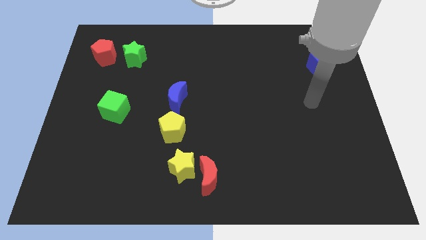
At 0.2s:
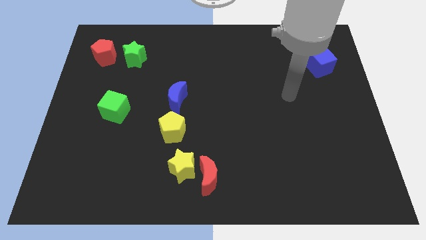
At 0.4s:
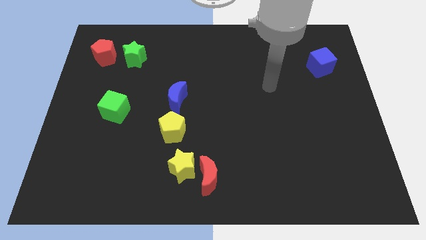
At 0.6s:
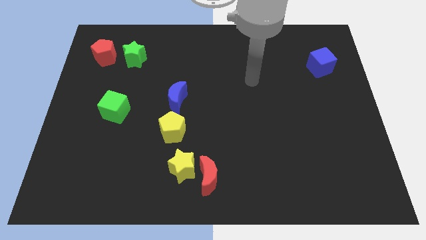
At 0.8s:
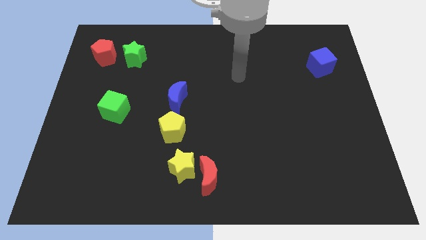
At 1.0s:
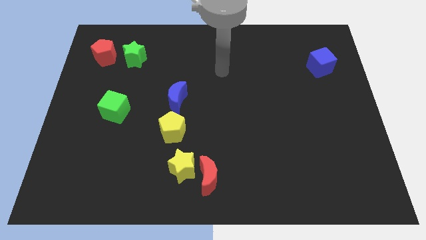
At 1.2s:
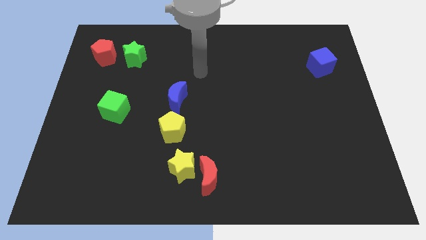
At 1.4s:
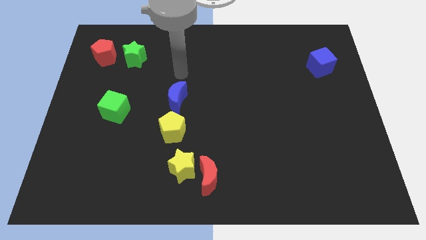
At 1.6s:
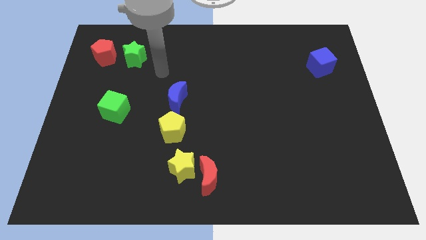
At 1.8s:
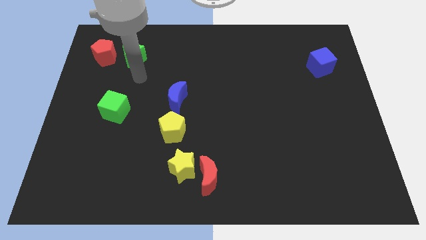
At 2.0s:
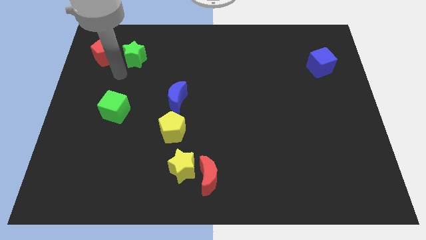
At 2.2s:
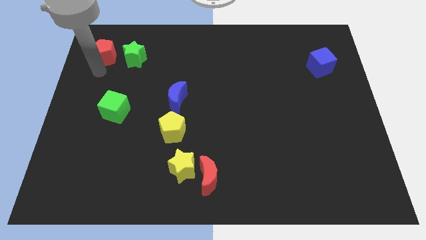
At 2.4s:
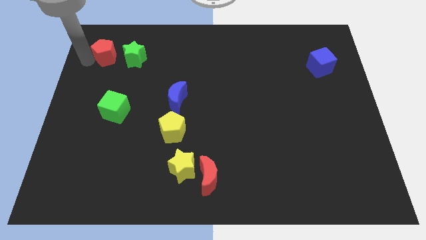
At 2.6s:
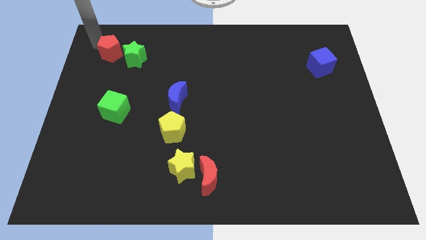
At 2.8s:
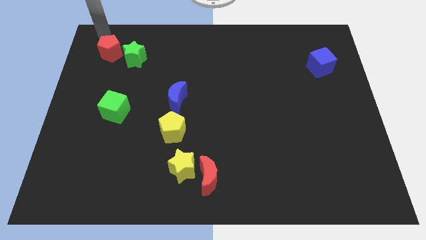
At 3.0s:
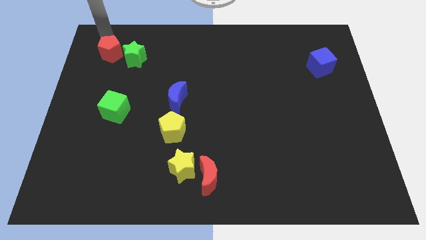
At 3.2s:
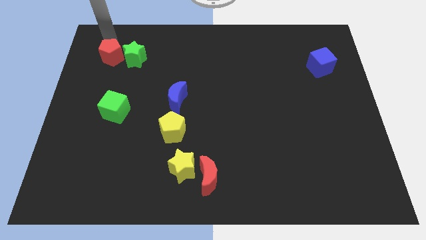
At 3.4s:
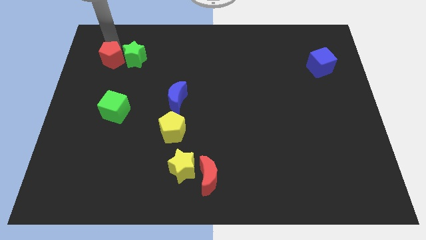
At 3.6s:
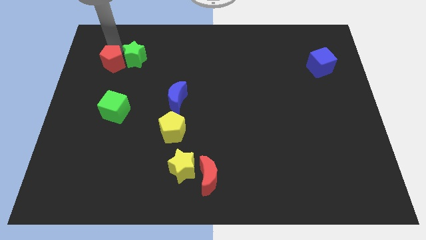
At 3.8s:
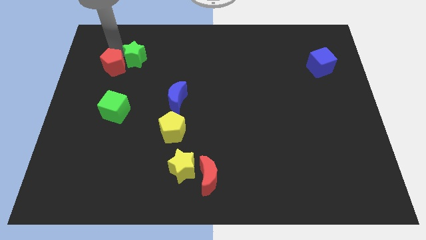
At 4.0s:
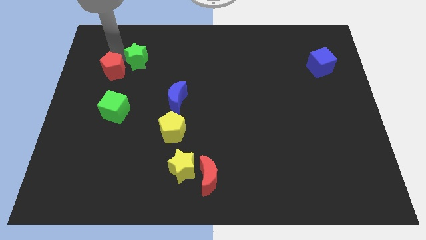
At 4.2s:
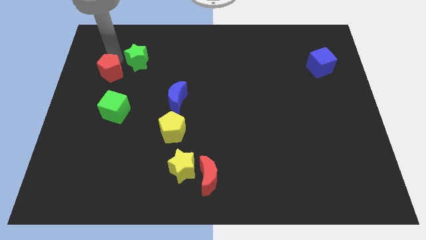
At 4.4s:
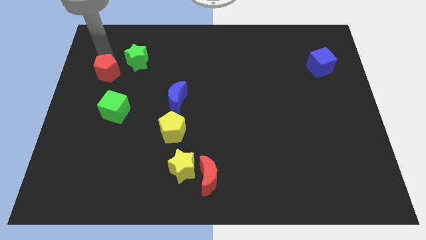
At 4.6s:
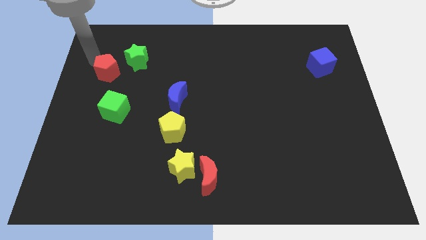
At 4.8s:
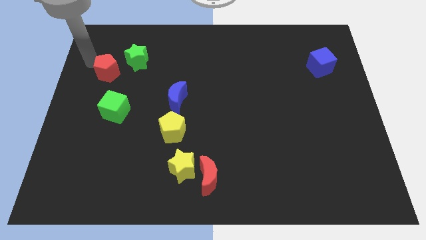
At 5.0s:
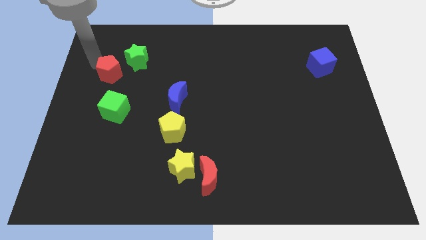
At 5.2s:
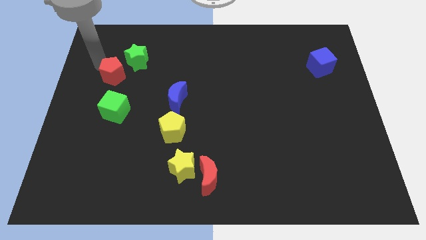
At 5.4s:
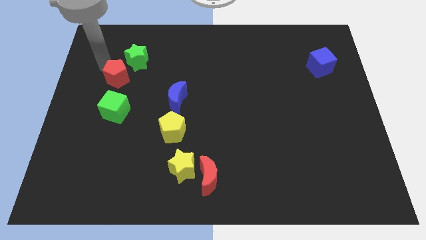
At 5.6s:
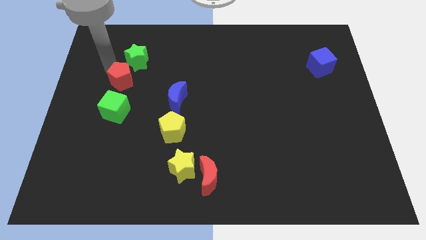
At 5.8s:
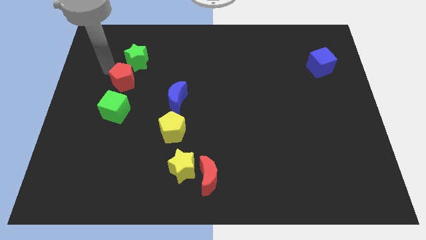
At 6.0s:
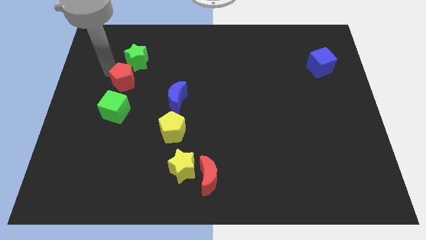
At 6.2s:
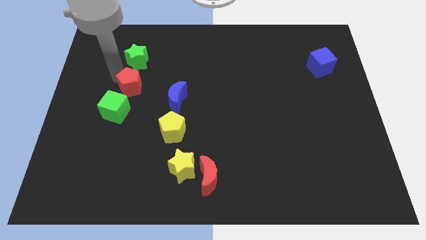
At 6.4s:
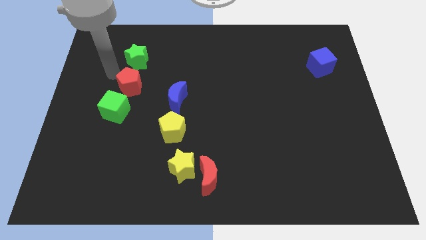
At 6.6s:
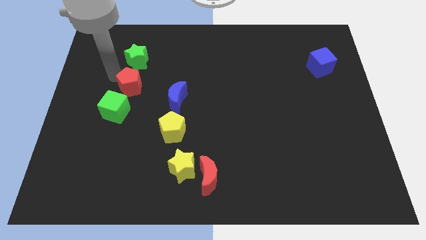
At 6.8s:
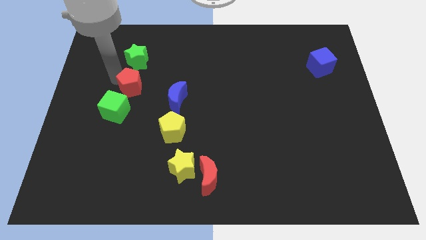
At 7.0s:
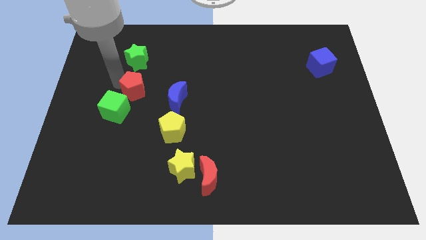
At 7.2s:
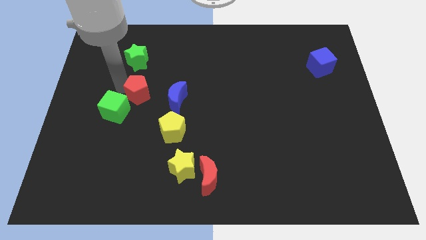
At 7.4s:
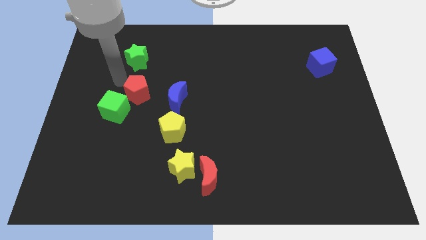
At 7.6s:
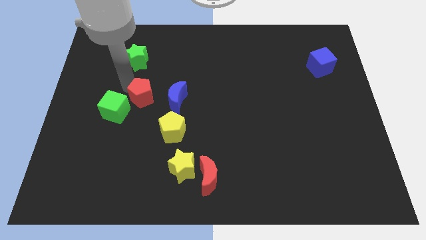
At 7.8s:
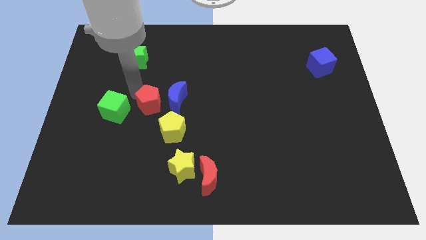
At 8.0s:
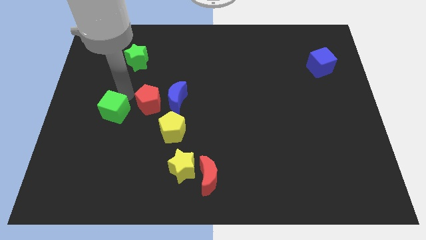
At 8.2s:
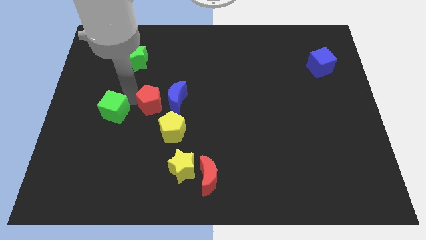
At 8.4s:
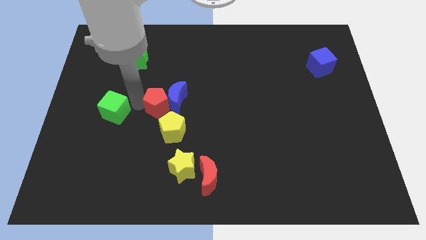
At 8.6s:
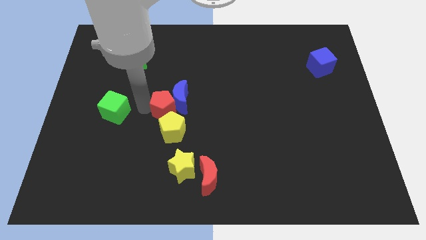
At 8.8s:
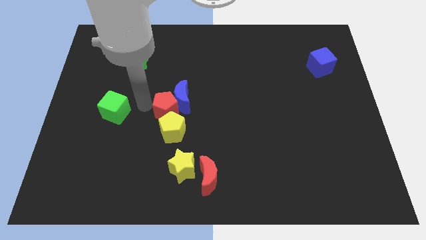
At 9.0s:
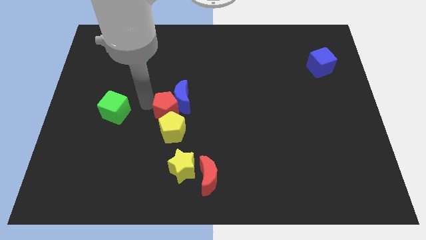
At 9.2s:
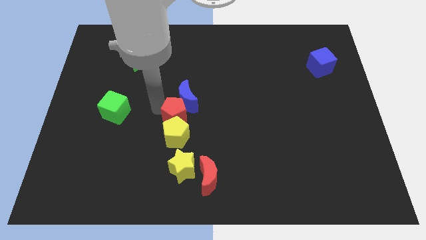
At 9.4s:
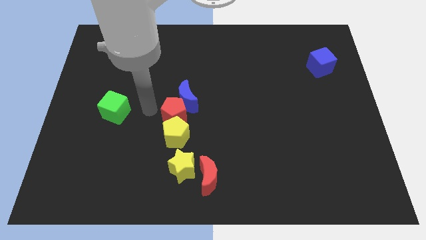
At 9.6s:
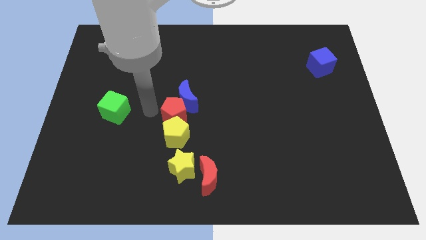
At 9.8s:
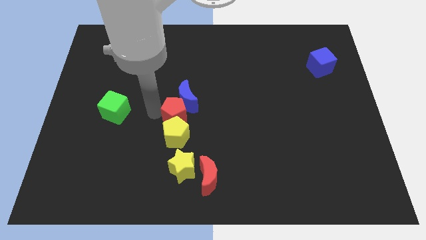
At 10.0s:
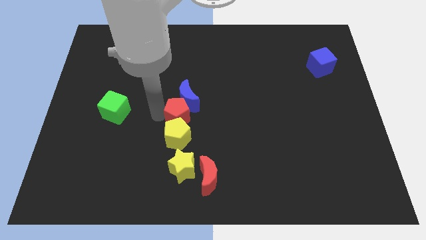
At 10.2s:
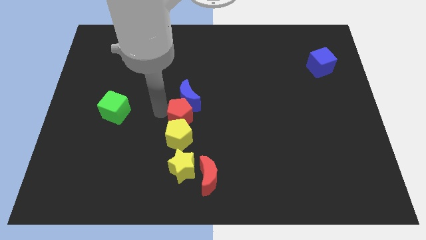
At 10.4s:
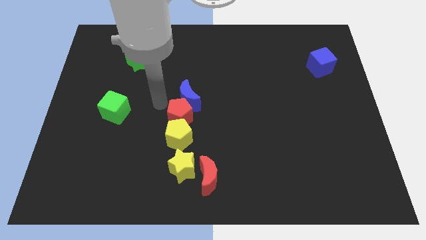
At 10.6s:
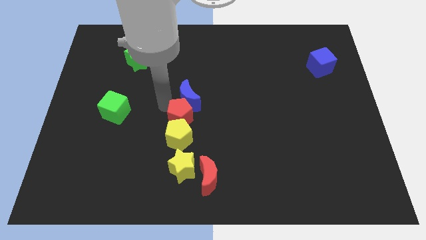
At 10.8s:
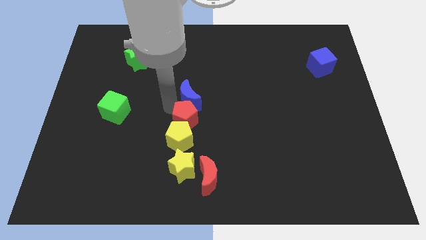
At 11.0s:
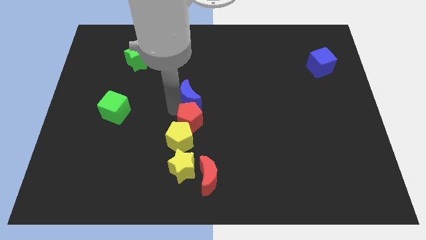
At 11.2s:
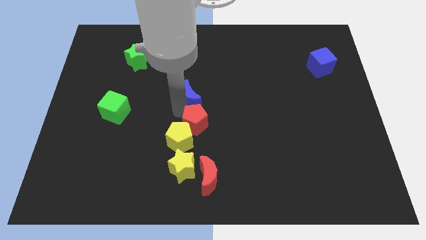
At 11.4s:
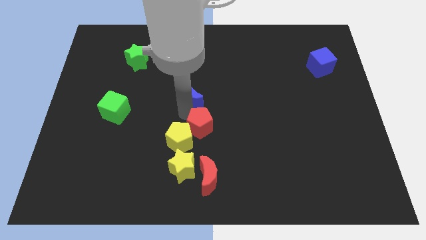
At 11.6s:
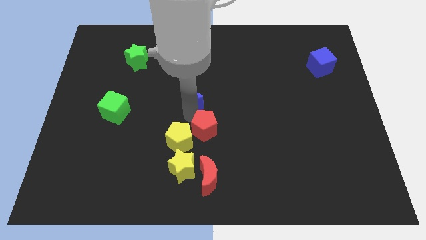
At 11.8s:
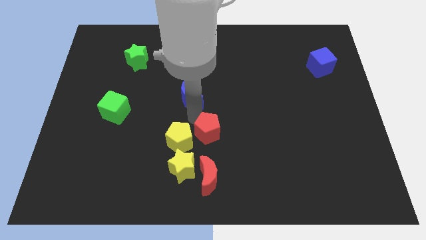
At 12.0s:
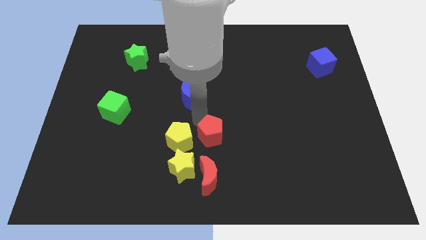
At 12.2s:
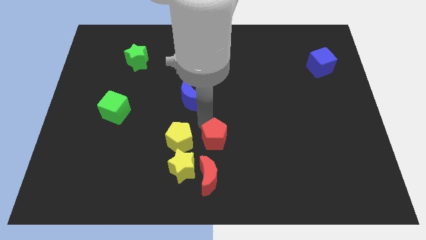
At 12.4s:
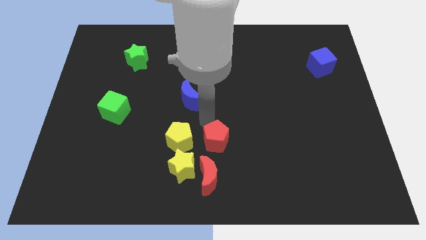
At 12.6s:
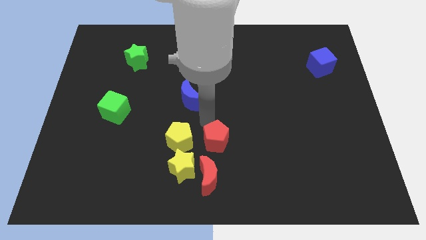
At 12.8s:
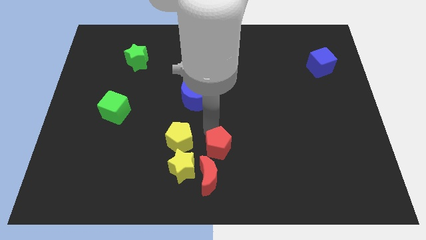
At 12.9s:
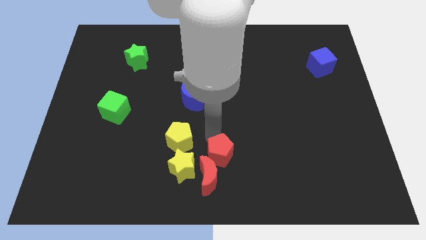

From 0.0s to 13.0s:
move the red pentagon just right of the yellow star

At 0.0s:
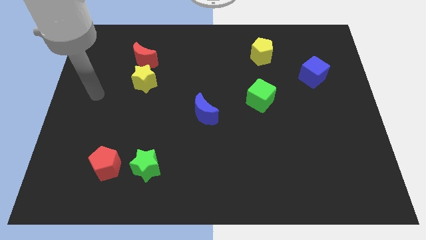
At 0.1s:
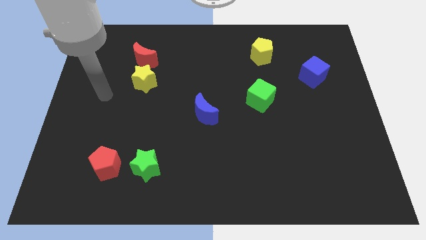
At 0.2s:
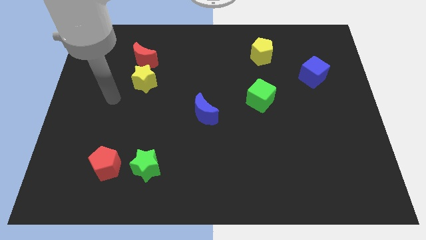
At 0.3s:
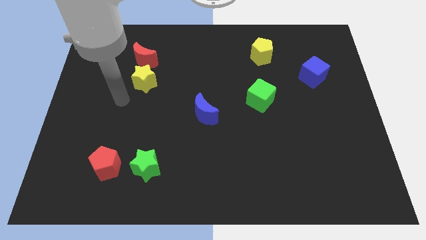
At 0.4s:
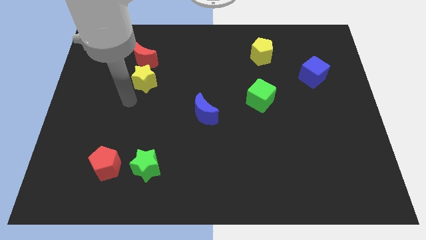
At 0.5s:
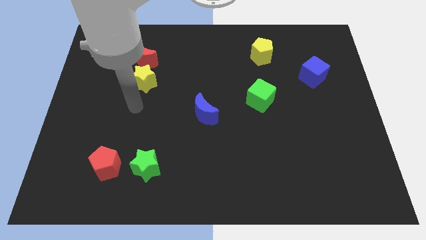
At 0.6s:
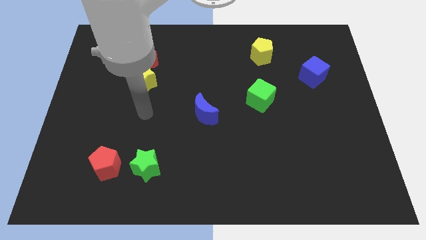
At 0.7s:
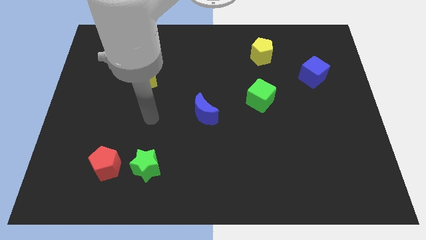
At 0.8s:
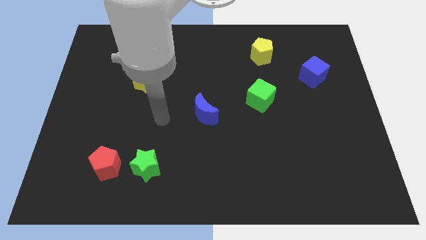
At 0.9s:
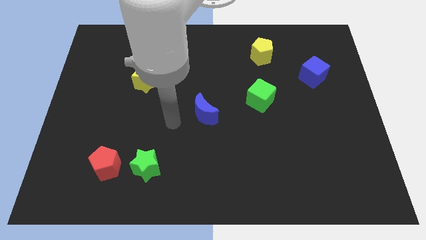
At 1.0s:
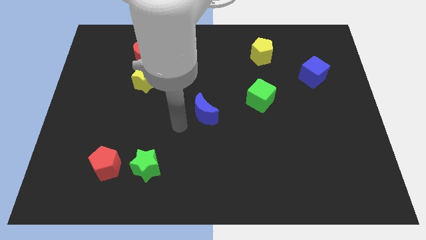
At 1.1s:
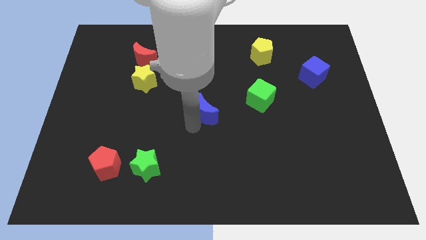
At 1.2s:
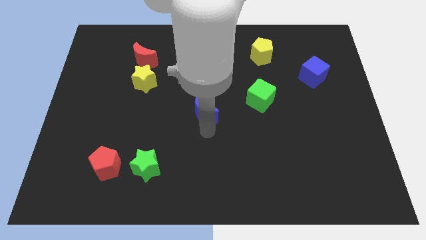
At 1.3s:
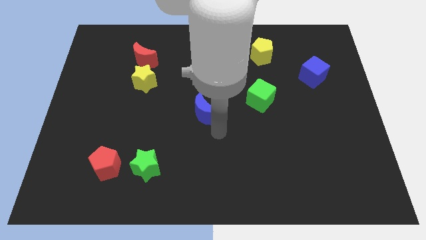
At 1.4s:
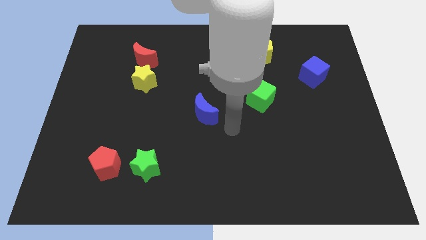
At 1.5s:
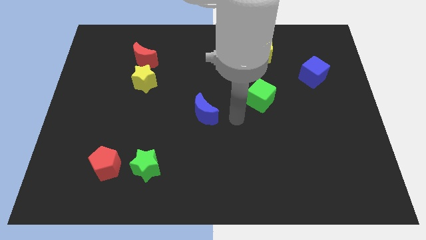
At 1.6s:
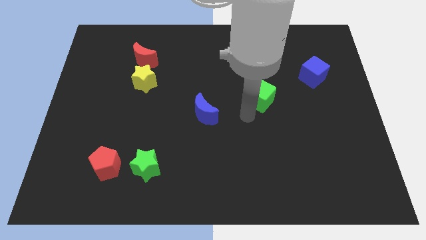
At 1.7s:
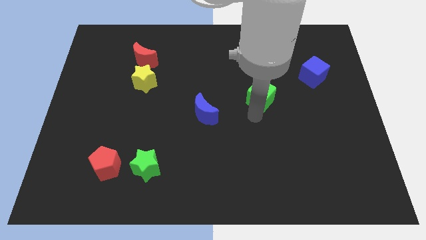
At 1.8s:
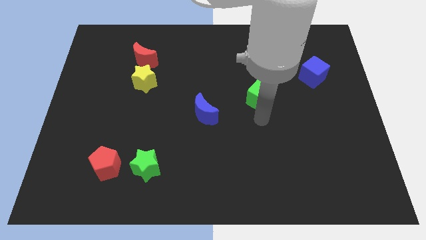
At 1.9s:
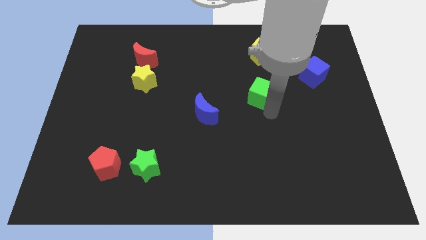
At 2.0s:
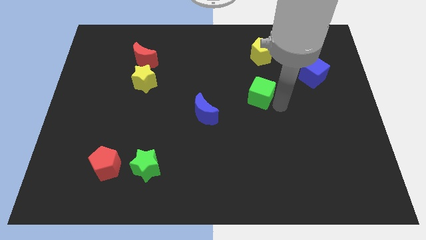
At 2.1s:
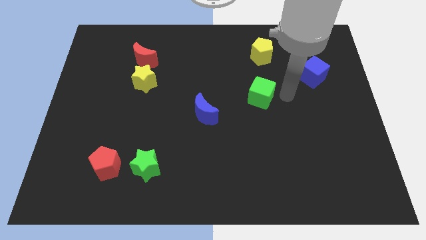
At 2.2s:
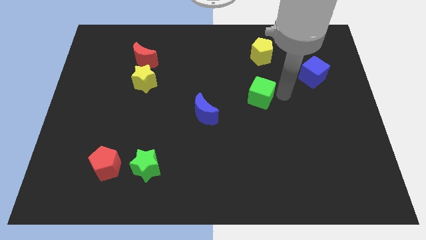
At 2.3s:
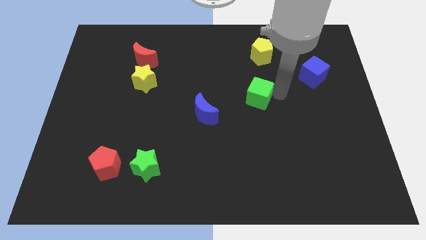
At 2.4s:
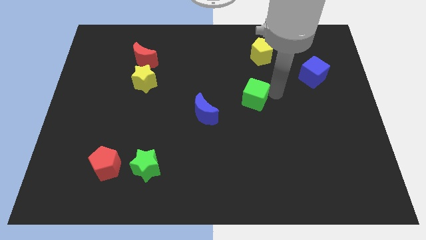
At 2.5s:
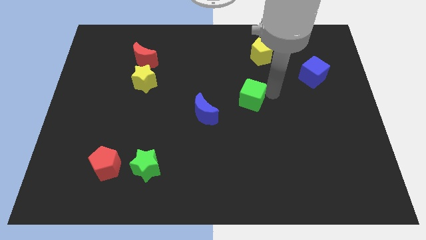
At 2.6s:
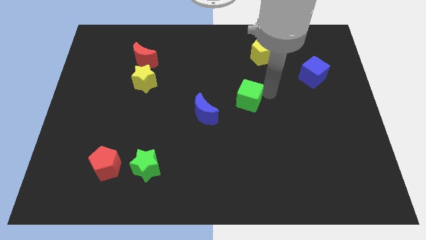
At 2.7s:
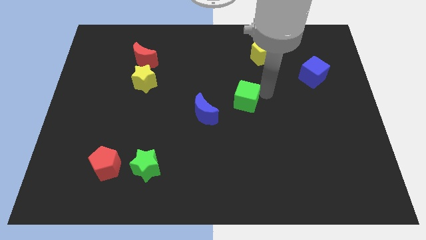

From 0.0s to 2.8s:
move the green cube to the top right side of the blue moon
